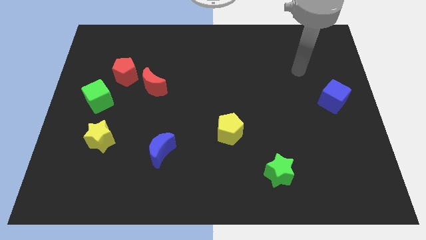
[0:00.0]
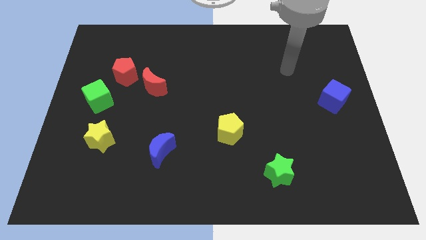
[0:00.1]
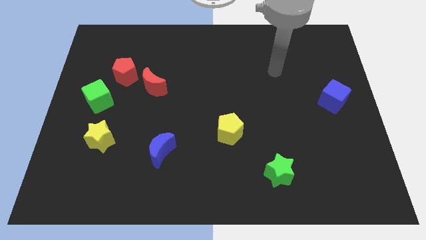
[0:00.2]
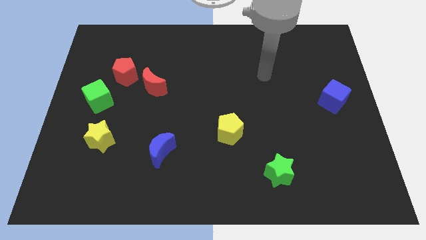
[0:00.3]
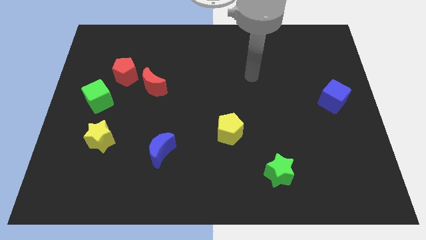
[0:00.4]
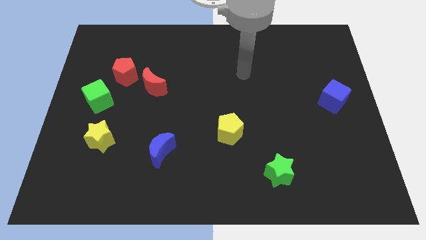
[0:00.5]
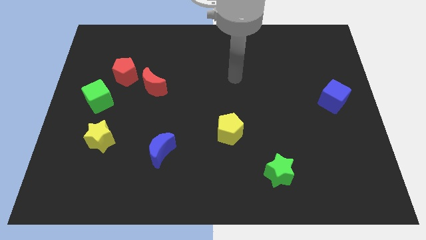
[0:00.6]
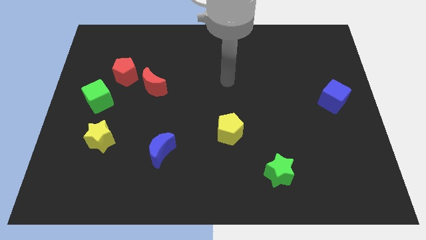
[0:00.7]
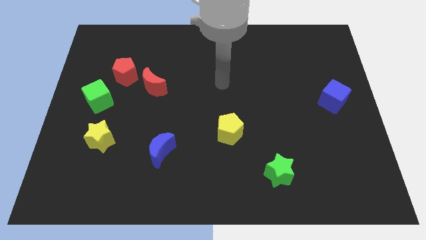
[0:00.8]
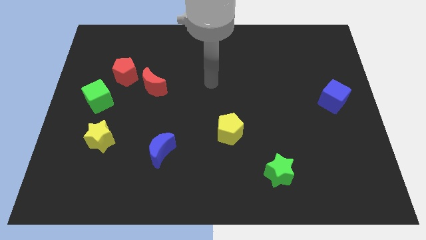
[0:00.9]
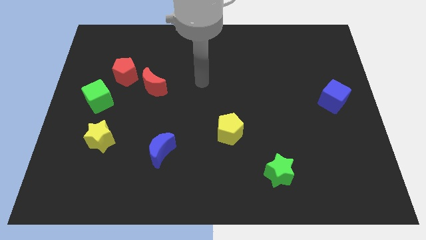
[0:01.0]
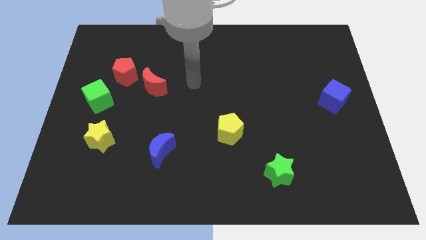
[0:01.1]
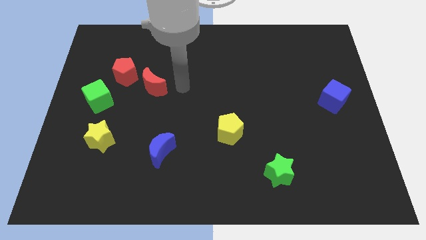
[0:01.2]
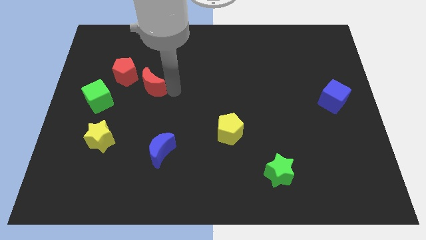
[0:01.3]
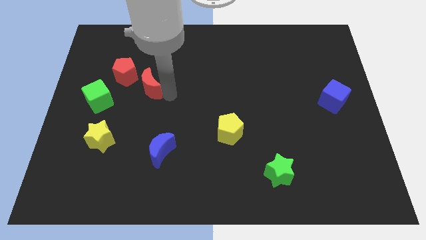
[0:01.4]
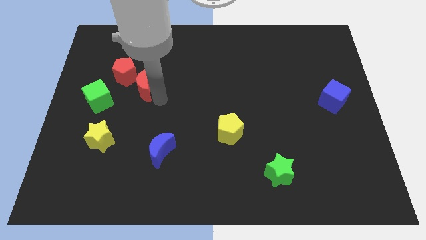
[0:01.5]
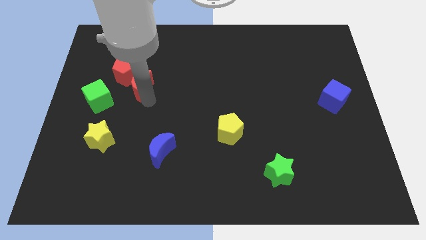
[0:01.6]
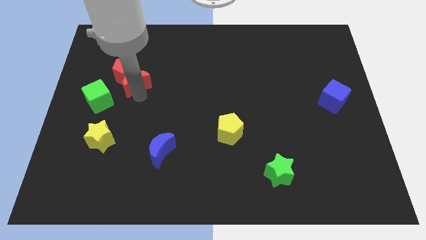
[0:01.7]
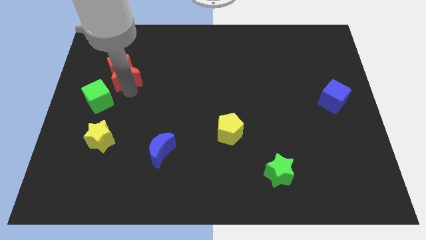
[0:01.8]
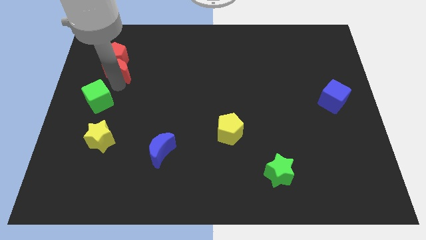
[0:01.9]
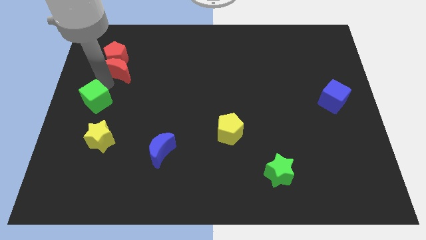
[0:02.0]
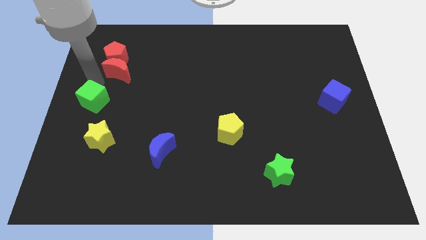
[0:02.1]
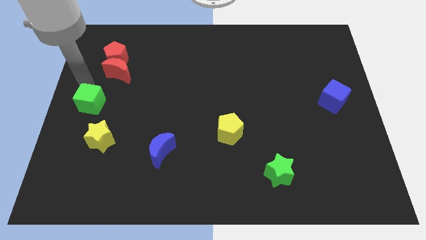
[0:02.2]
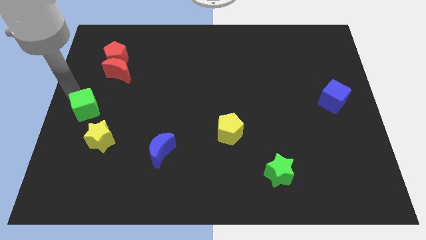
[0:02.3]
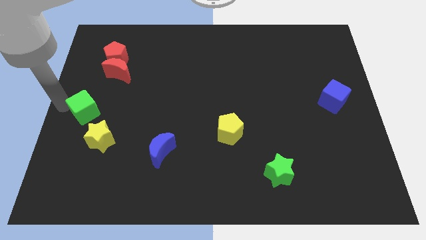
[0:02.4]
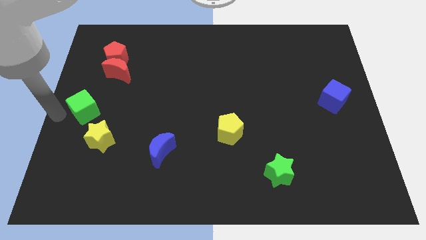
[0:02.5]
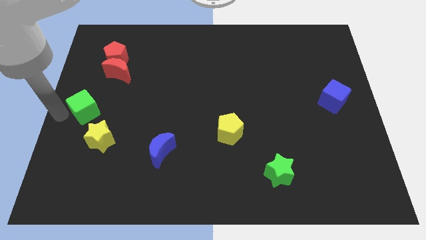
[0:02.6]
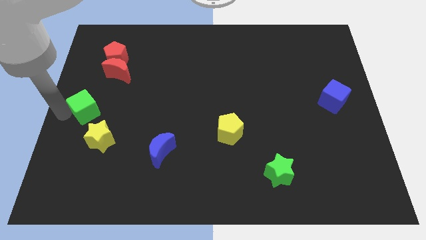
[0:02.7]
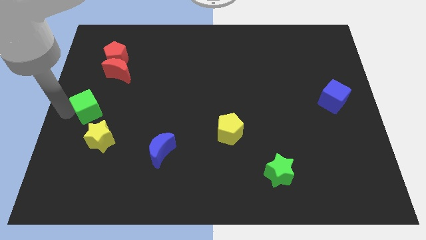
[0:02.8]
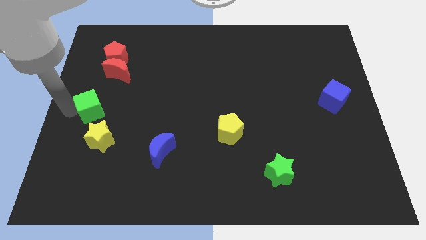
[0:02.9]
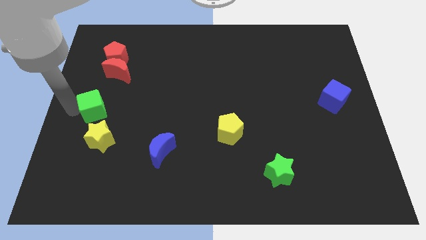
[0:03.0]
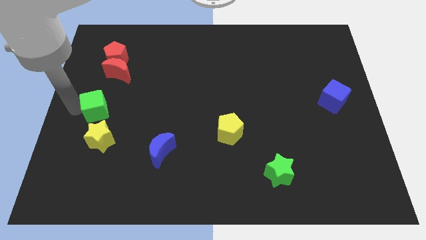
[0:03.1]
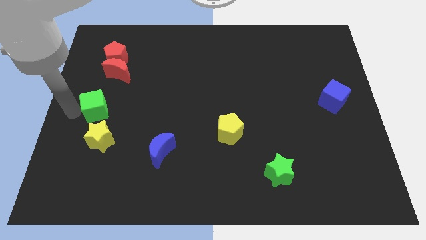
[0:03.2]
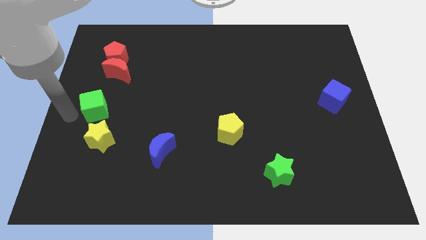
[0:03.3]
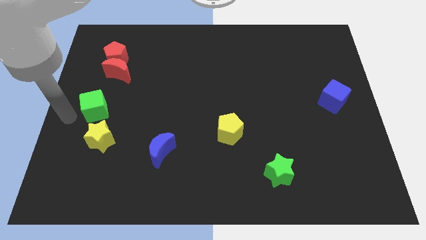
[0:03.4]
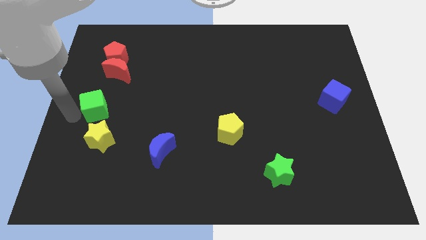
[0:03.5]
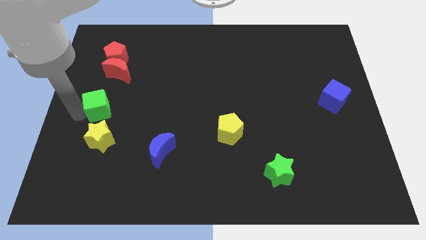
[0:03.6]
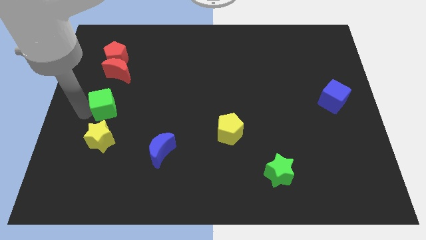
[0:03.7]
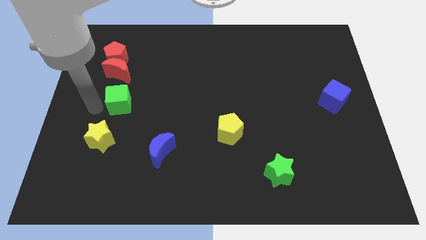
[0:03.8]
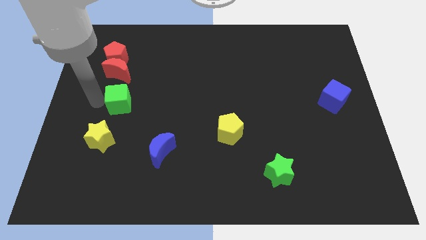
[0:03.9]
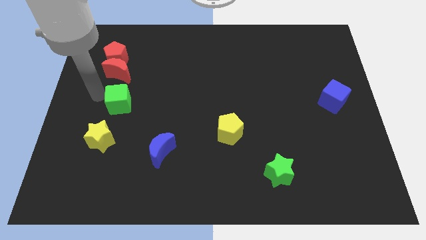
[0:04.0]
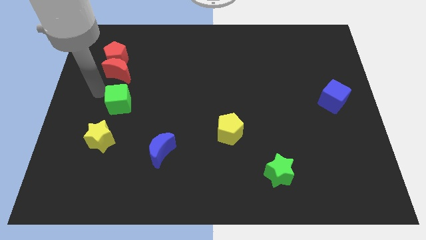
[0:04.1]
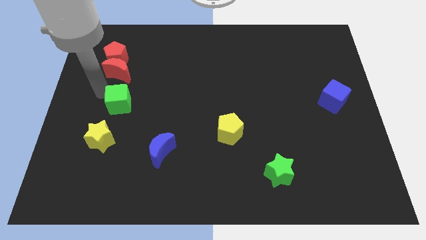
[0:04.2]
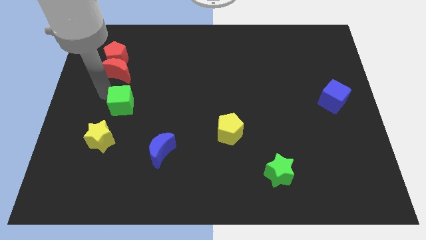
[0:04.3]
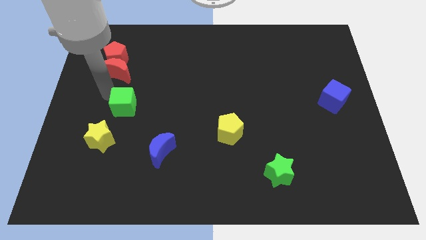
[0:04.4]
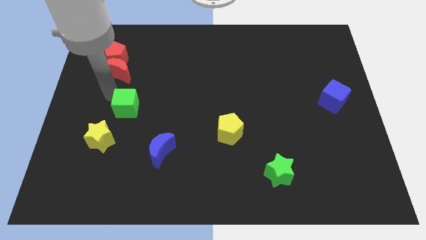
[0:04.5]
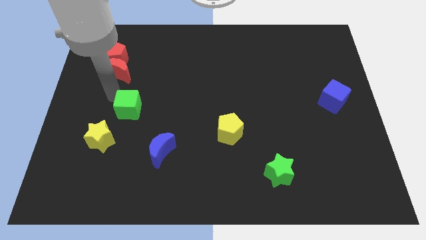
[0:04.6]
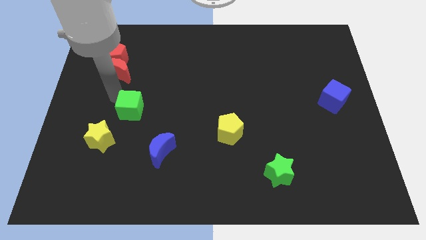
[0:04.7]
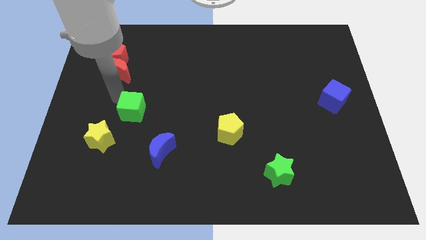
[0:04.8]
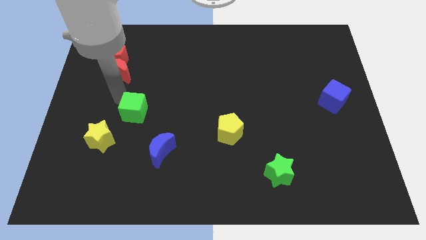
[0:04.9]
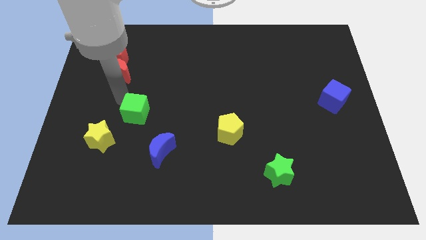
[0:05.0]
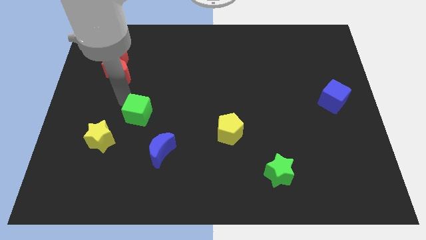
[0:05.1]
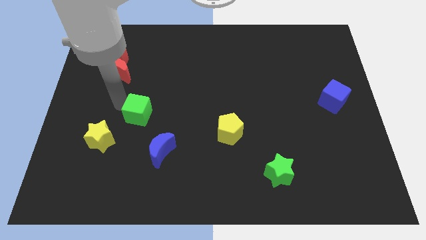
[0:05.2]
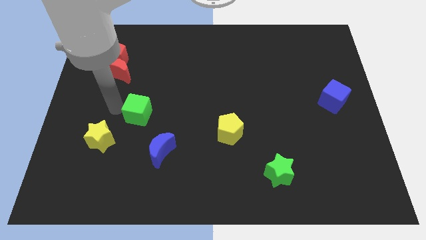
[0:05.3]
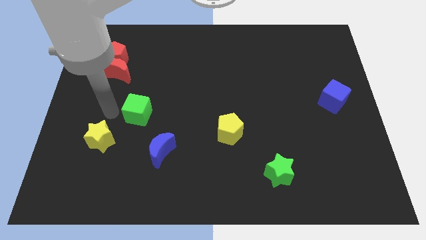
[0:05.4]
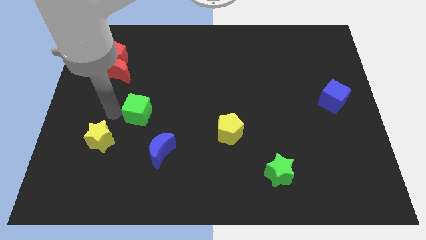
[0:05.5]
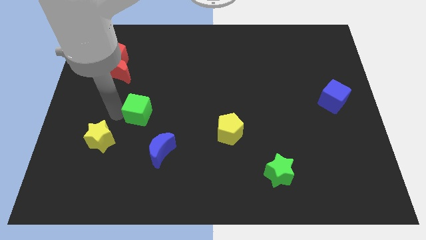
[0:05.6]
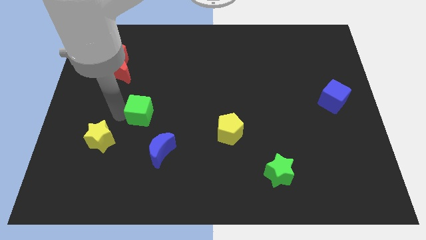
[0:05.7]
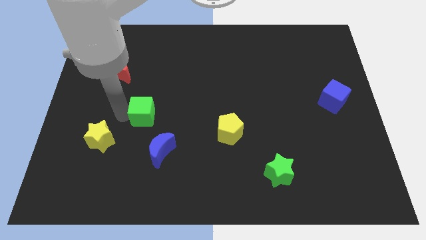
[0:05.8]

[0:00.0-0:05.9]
push the green cube to the top of the blue moon

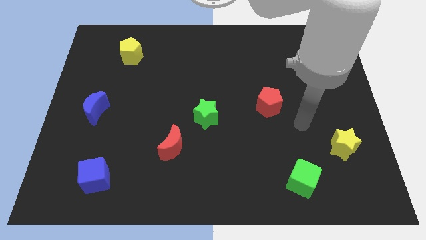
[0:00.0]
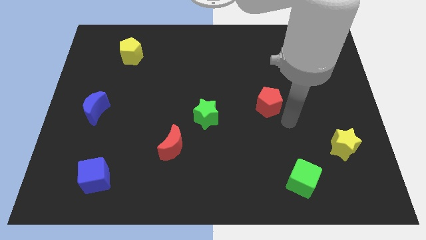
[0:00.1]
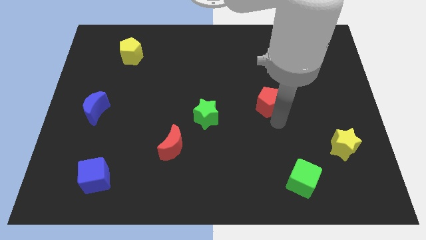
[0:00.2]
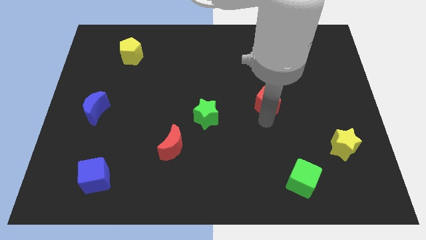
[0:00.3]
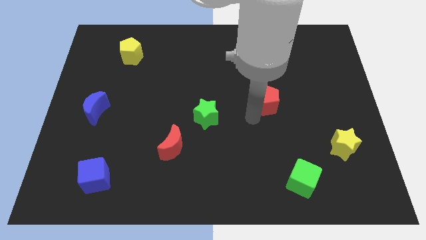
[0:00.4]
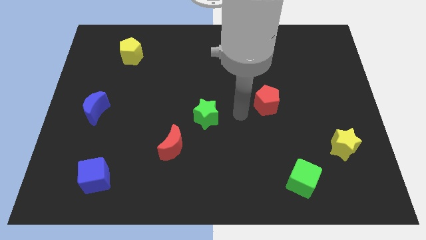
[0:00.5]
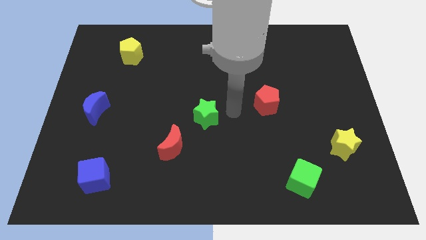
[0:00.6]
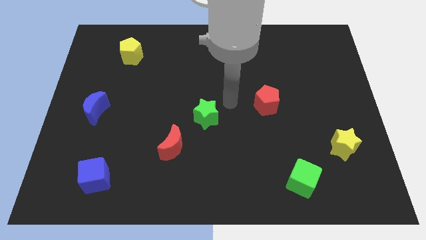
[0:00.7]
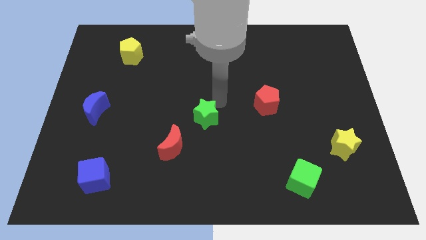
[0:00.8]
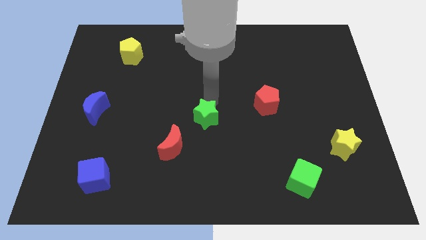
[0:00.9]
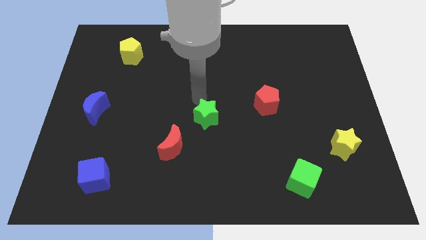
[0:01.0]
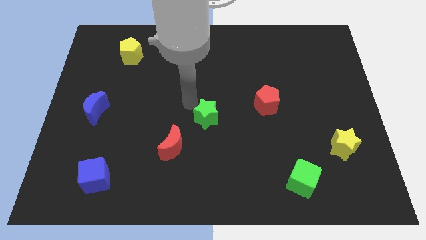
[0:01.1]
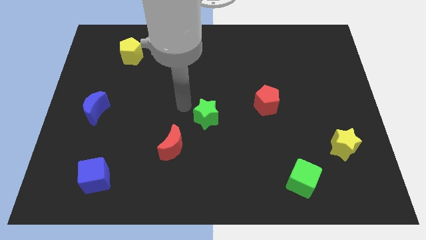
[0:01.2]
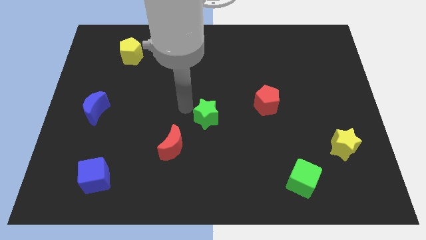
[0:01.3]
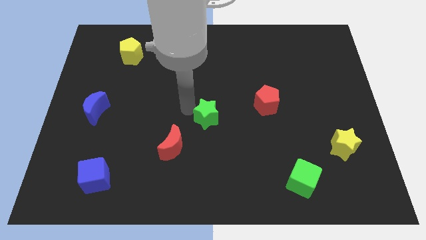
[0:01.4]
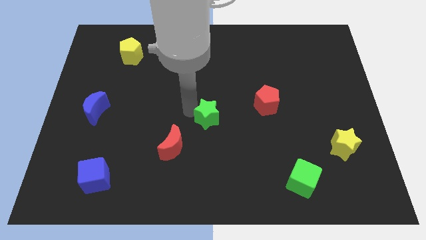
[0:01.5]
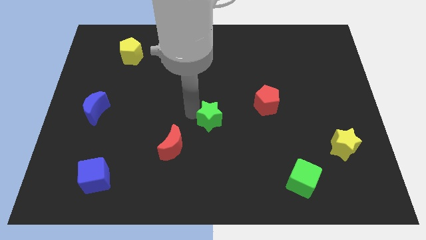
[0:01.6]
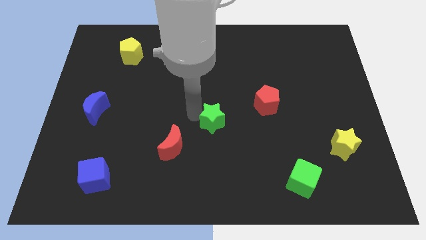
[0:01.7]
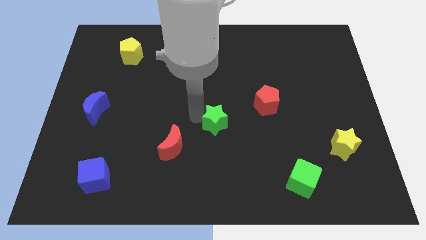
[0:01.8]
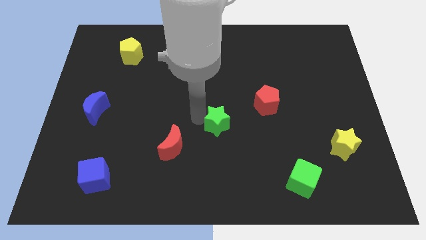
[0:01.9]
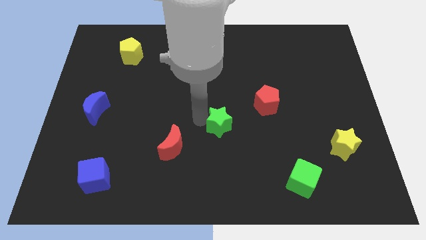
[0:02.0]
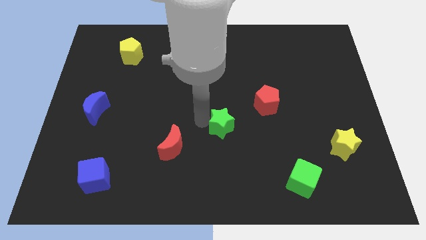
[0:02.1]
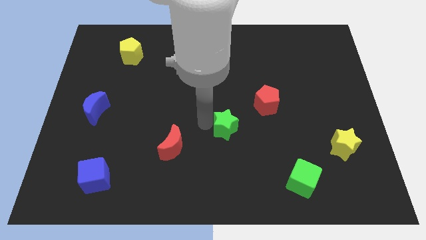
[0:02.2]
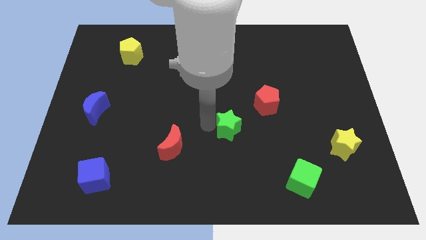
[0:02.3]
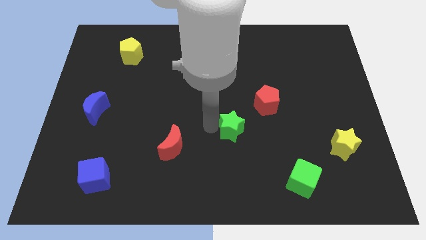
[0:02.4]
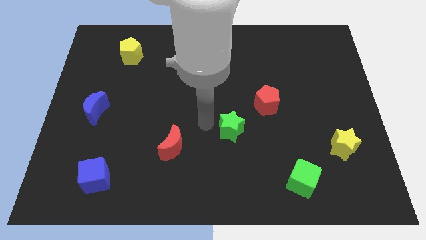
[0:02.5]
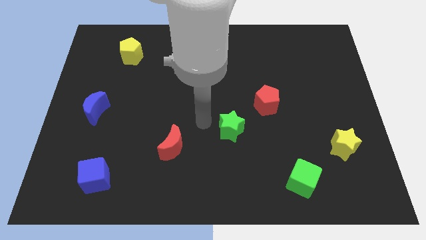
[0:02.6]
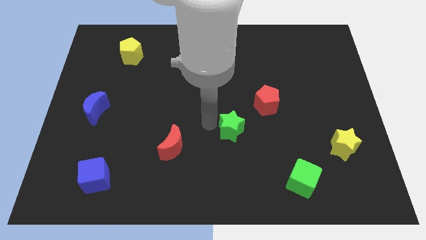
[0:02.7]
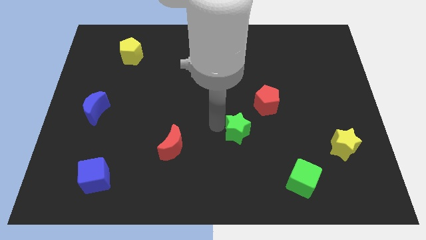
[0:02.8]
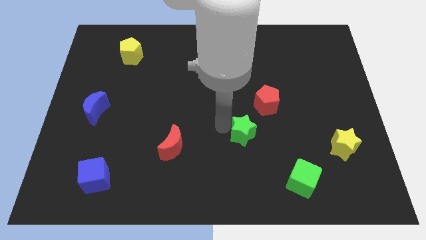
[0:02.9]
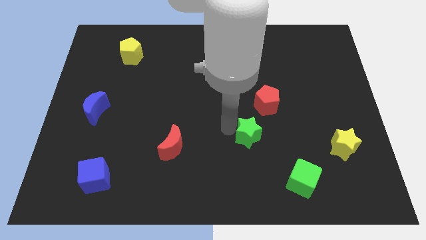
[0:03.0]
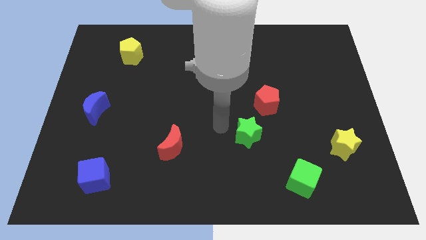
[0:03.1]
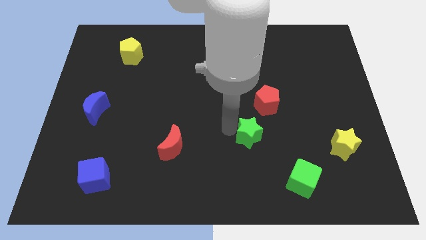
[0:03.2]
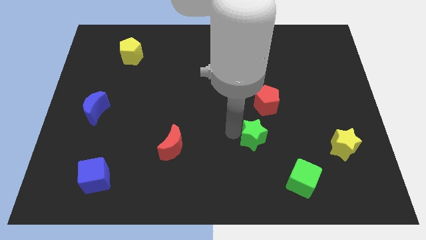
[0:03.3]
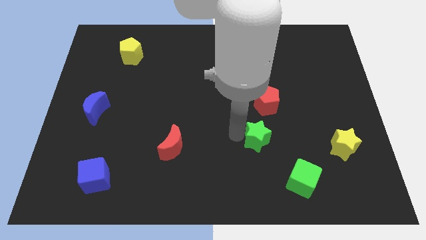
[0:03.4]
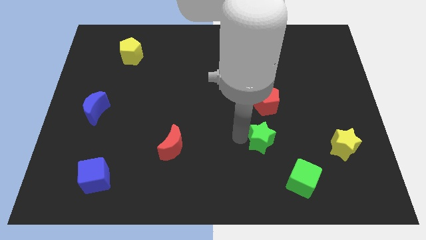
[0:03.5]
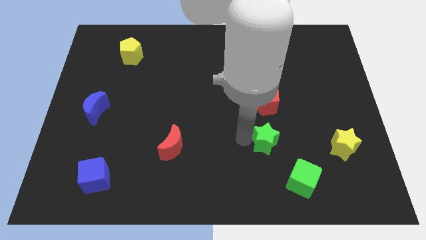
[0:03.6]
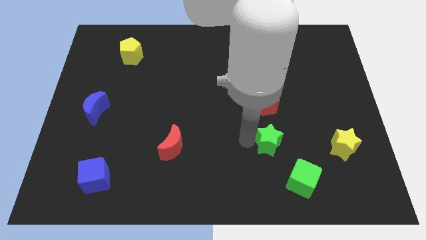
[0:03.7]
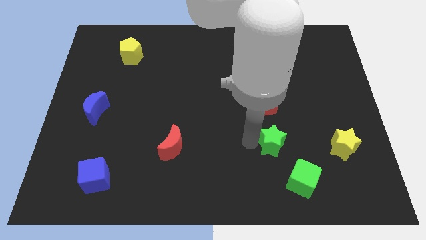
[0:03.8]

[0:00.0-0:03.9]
move the green star just left of the yellow star
